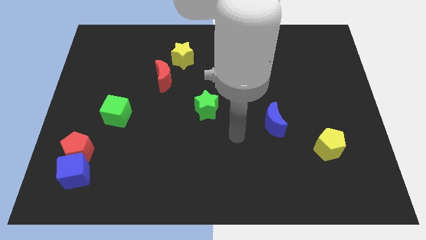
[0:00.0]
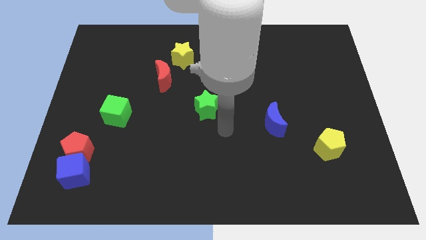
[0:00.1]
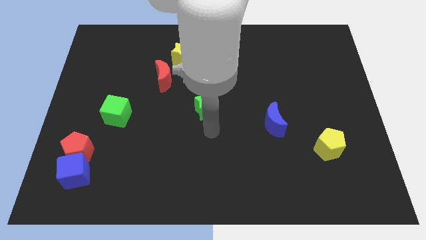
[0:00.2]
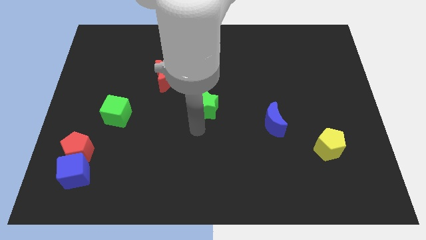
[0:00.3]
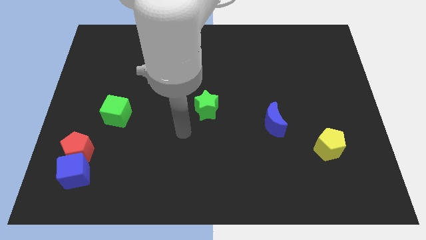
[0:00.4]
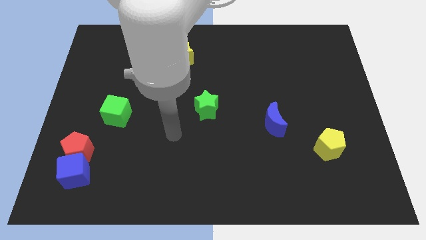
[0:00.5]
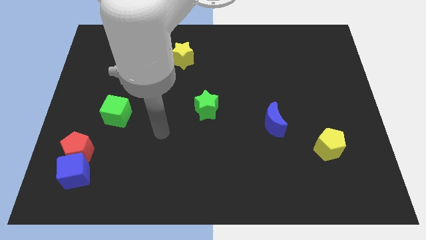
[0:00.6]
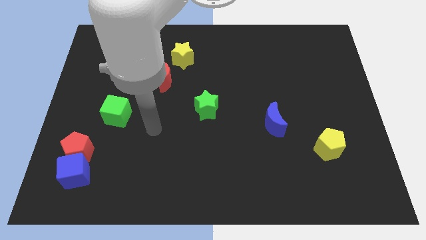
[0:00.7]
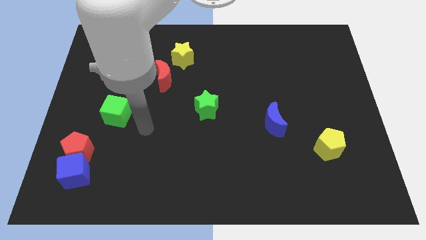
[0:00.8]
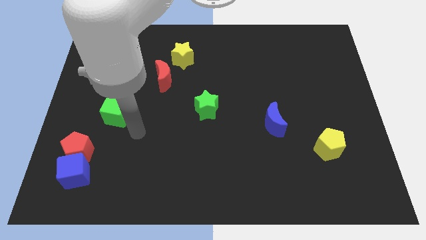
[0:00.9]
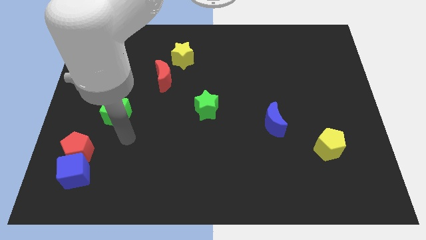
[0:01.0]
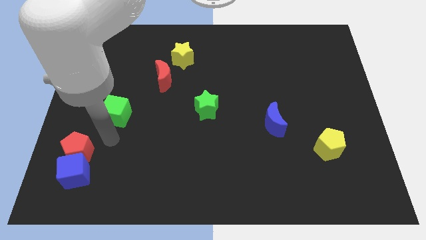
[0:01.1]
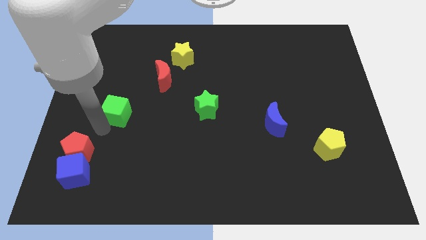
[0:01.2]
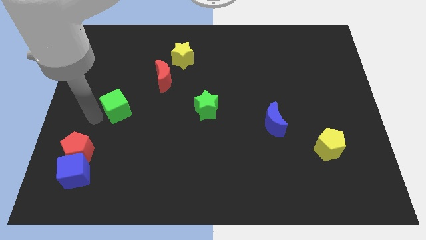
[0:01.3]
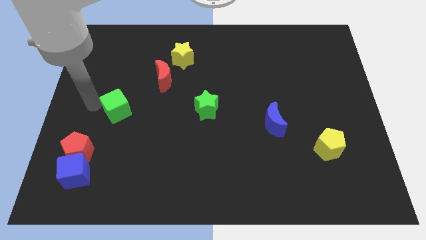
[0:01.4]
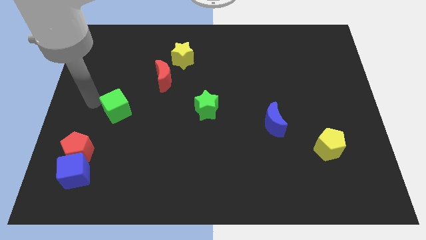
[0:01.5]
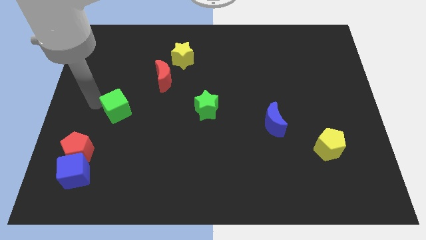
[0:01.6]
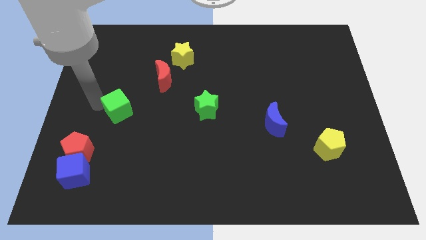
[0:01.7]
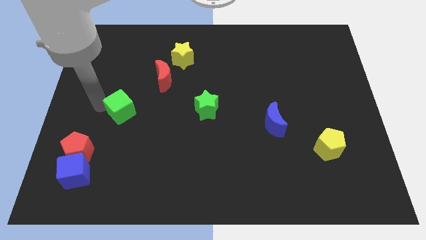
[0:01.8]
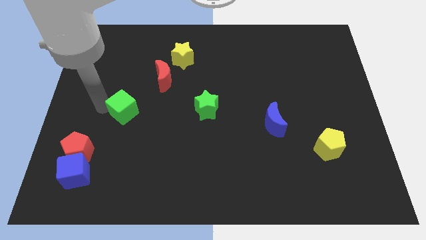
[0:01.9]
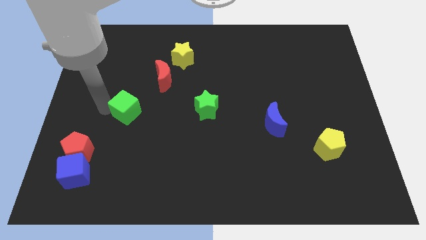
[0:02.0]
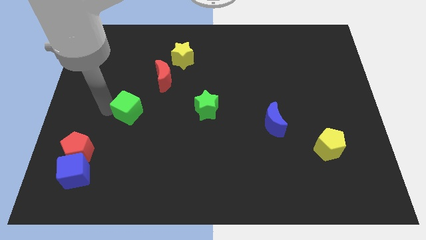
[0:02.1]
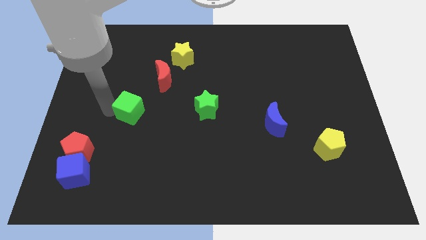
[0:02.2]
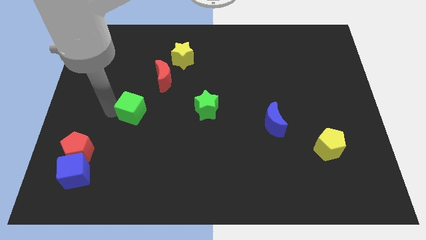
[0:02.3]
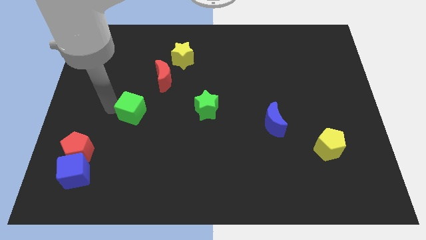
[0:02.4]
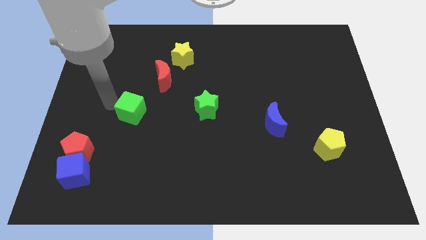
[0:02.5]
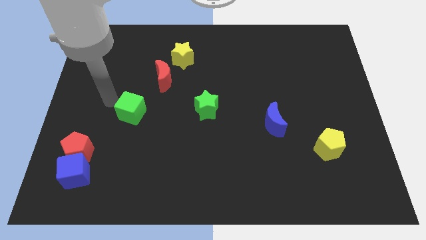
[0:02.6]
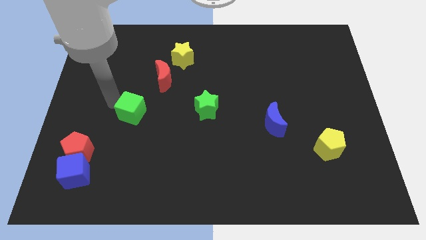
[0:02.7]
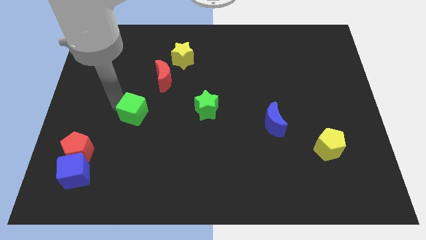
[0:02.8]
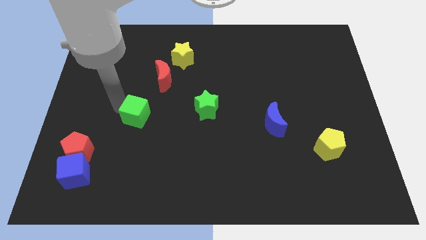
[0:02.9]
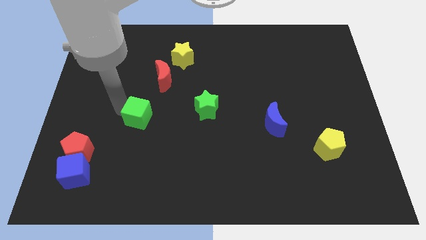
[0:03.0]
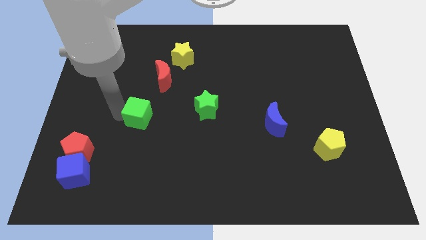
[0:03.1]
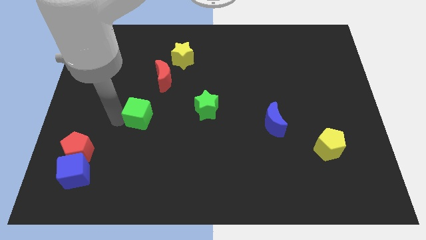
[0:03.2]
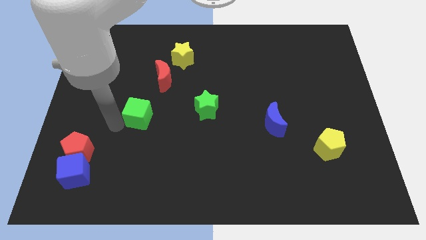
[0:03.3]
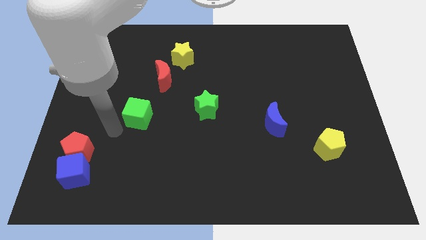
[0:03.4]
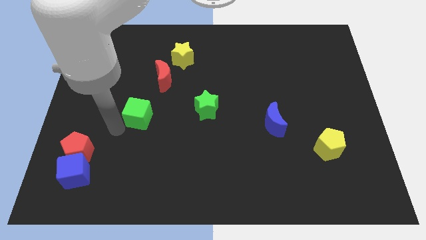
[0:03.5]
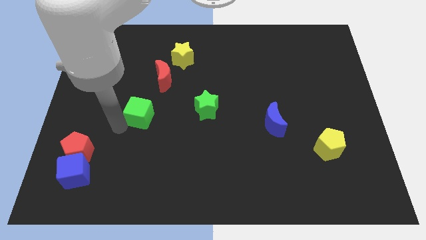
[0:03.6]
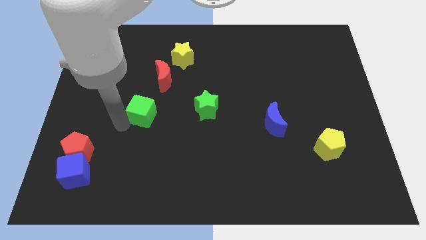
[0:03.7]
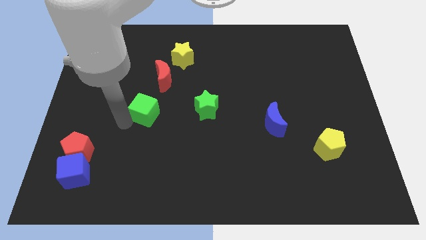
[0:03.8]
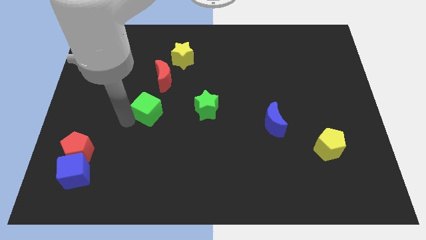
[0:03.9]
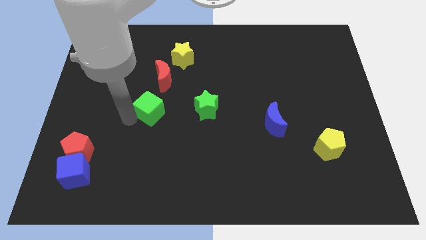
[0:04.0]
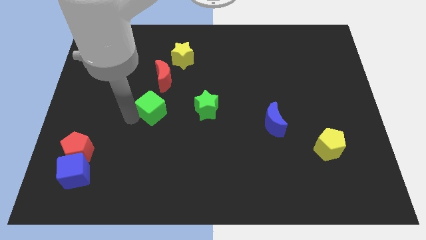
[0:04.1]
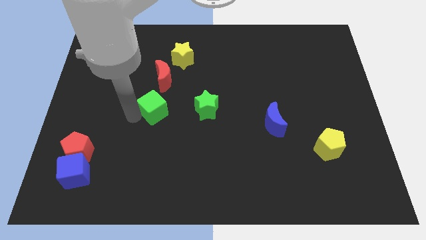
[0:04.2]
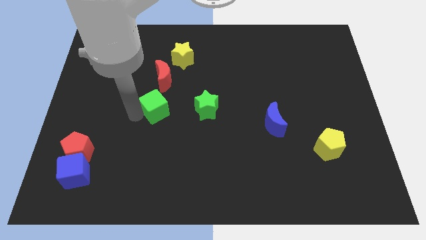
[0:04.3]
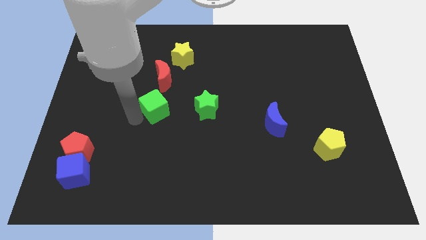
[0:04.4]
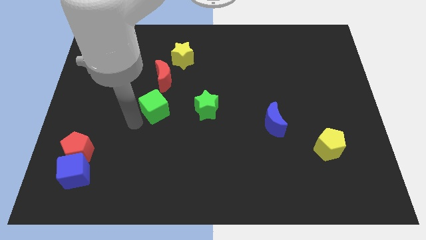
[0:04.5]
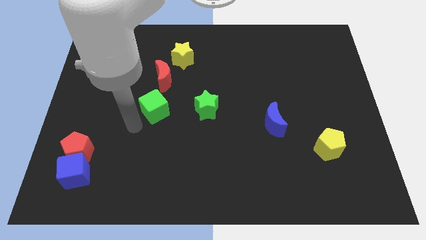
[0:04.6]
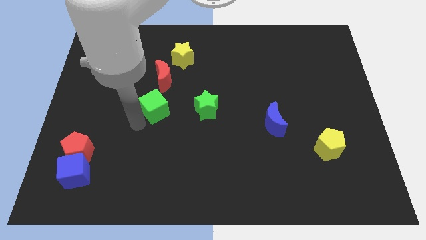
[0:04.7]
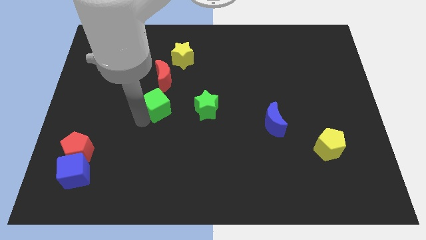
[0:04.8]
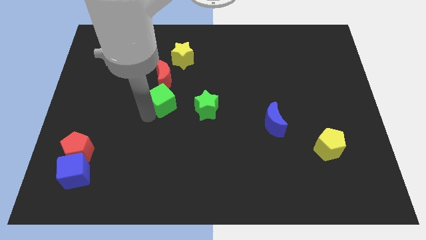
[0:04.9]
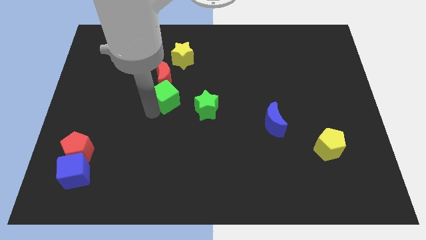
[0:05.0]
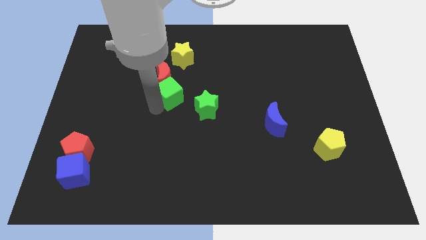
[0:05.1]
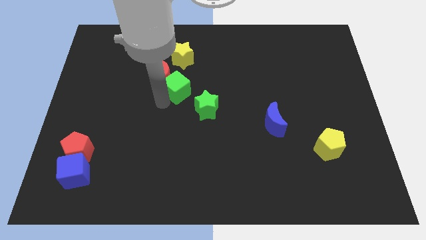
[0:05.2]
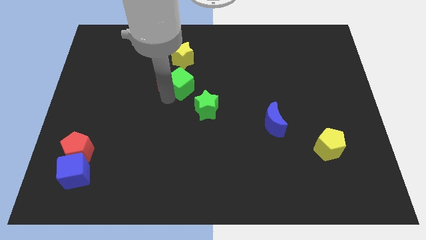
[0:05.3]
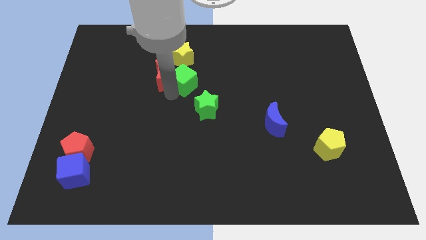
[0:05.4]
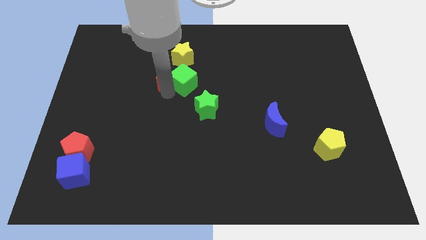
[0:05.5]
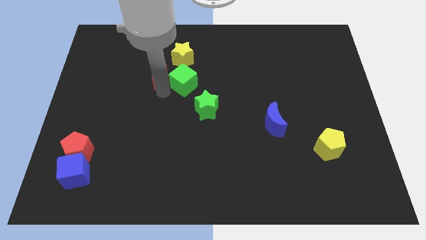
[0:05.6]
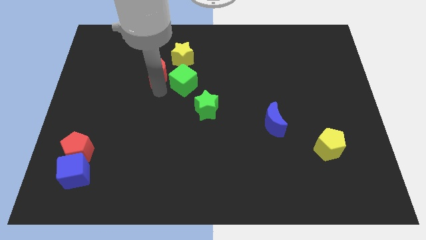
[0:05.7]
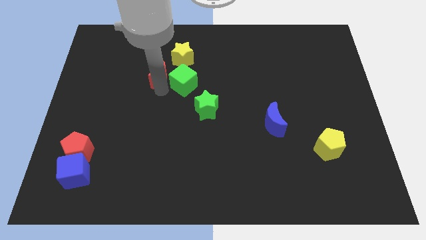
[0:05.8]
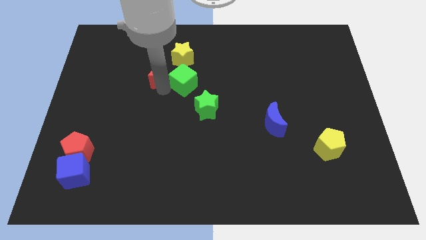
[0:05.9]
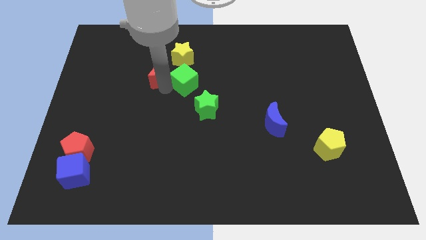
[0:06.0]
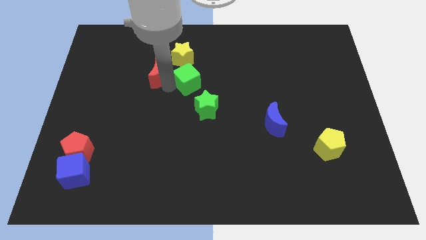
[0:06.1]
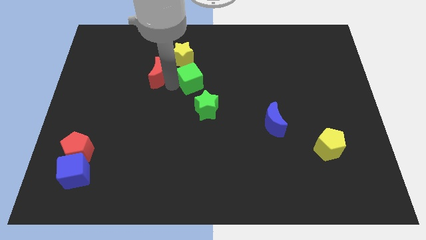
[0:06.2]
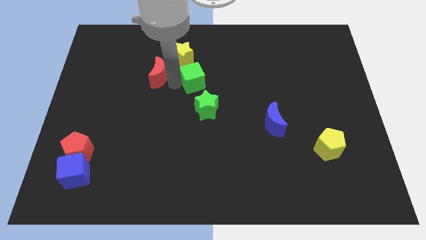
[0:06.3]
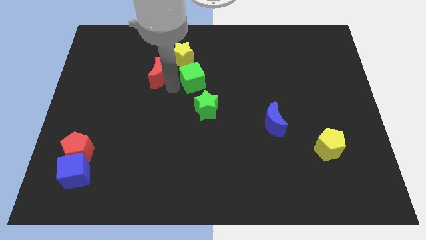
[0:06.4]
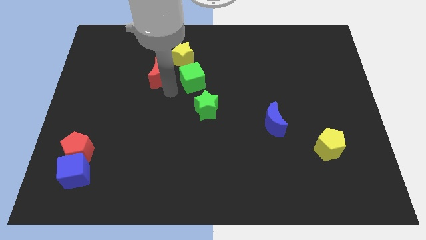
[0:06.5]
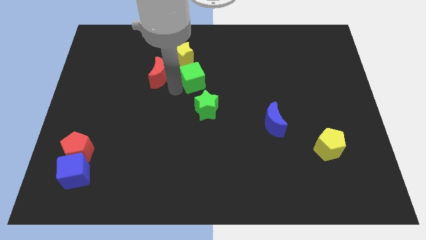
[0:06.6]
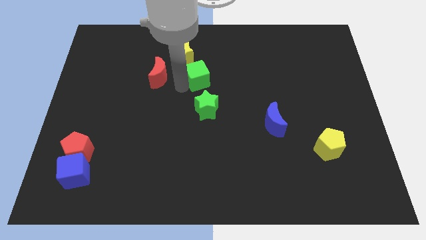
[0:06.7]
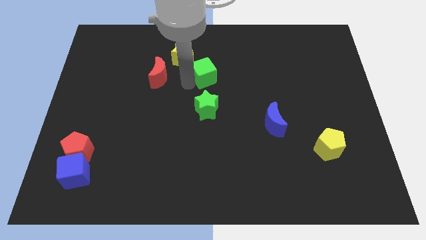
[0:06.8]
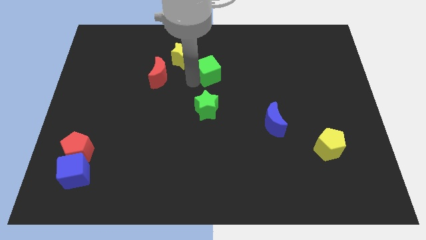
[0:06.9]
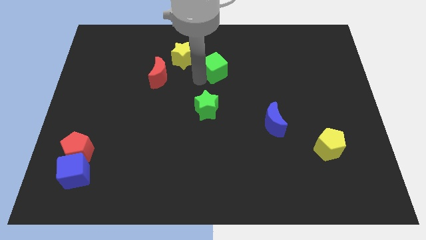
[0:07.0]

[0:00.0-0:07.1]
move the green cube just right of the yellow star
